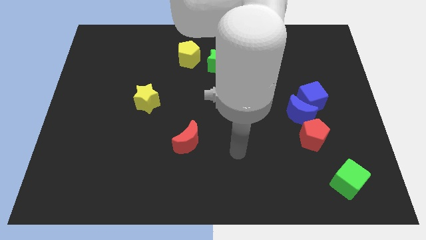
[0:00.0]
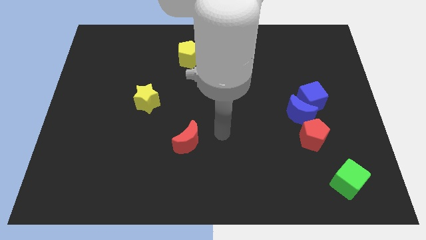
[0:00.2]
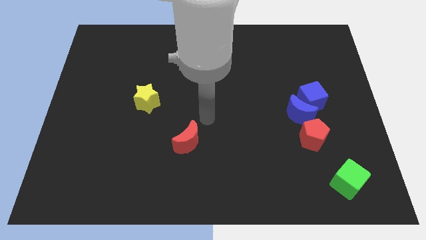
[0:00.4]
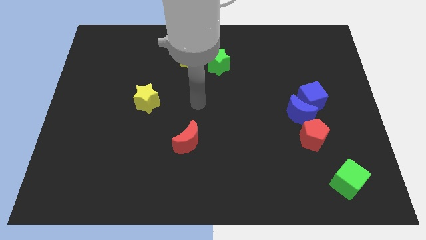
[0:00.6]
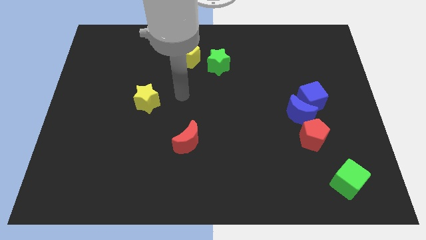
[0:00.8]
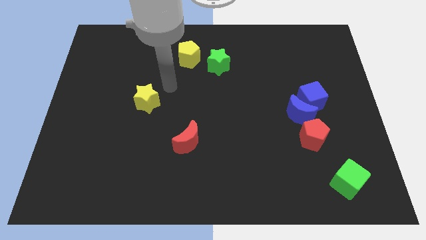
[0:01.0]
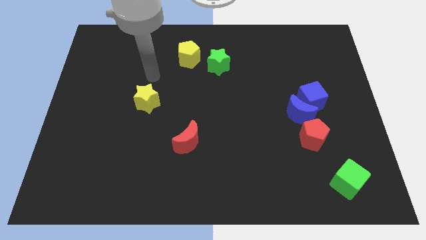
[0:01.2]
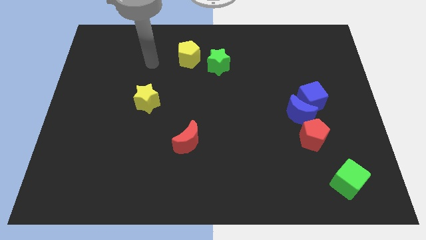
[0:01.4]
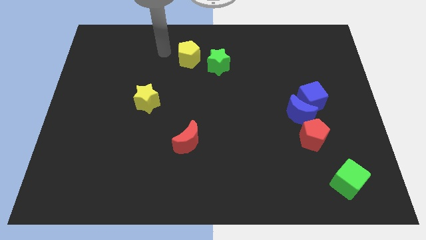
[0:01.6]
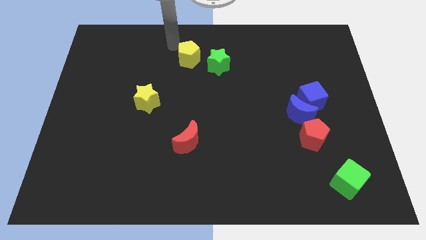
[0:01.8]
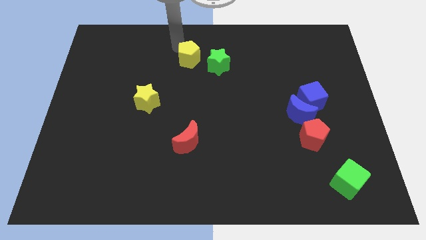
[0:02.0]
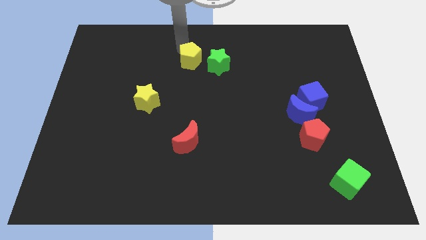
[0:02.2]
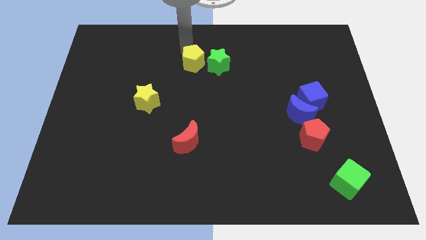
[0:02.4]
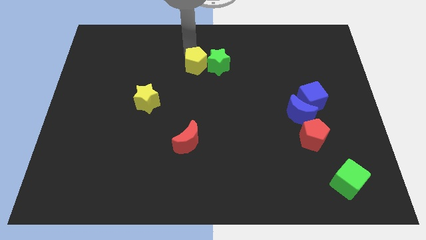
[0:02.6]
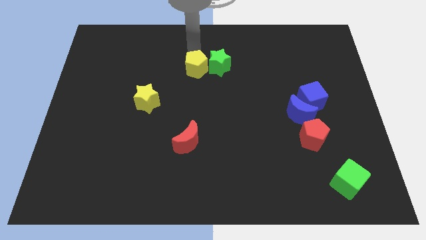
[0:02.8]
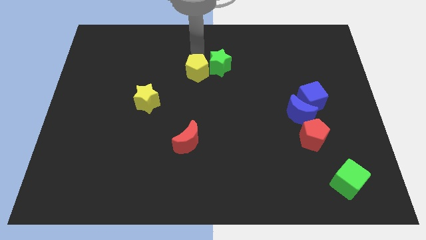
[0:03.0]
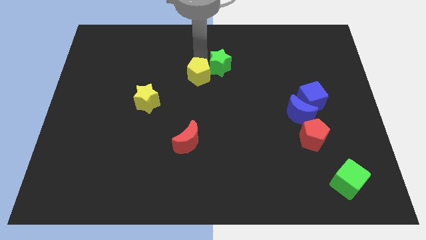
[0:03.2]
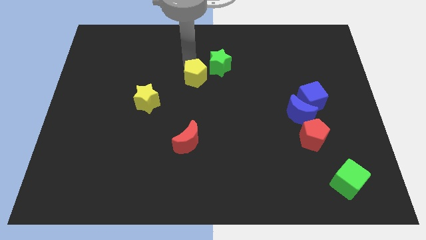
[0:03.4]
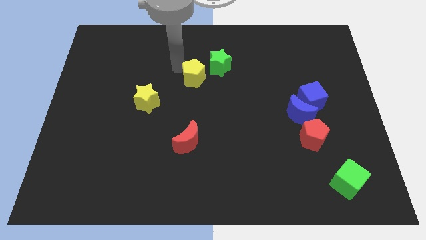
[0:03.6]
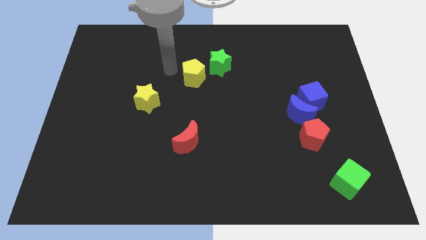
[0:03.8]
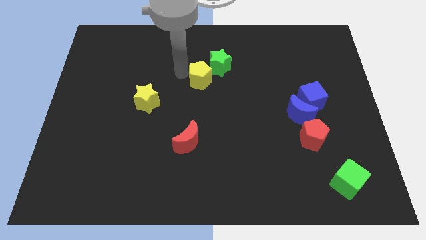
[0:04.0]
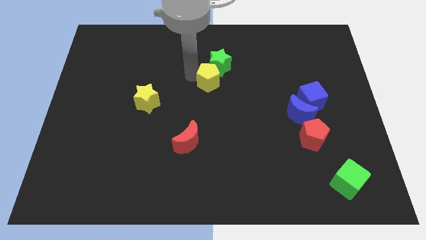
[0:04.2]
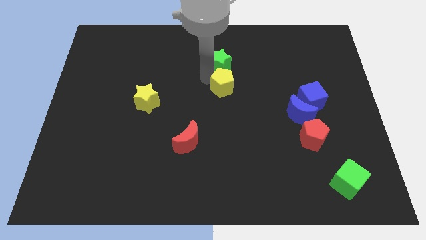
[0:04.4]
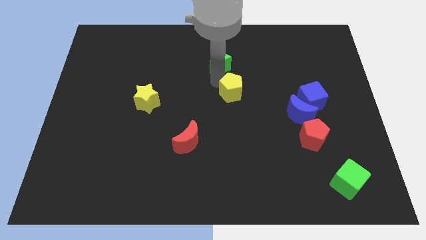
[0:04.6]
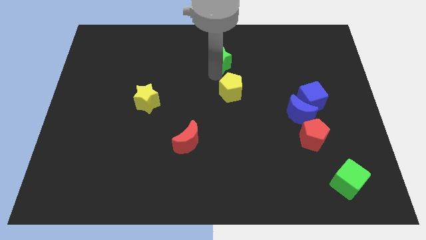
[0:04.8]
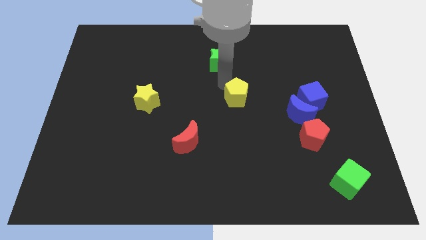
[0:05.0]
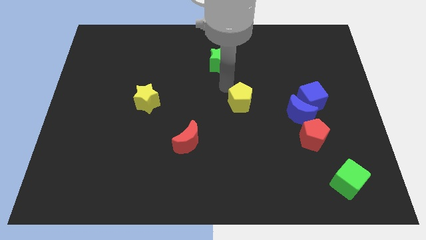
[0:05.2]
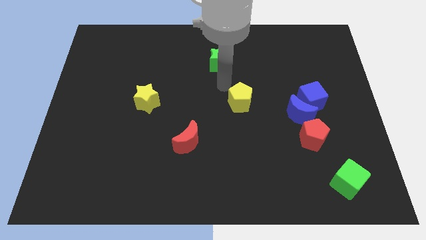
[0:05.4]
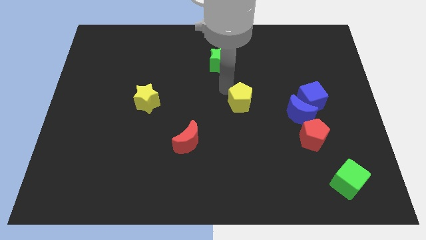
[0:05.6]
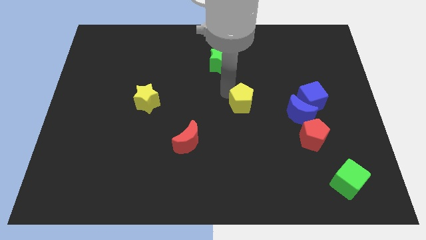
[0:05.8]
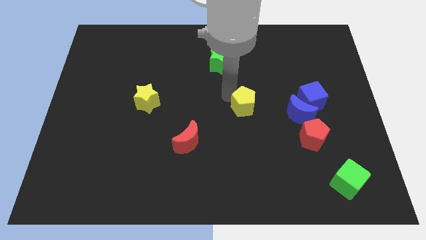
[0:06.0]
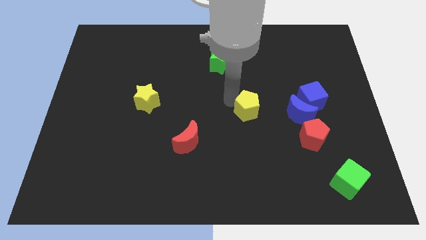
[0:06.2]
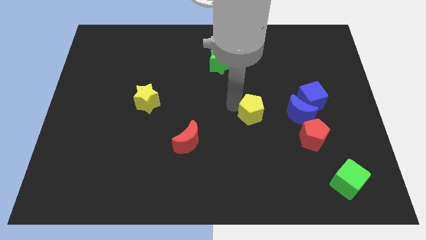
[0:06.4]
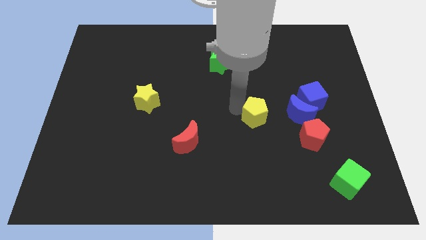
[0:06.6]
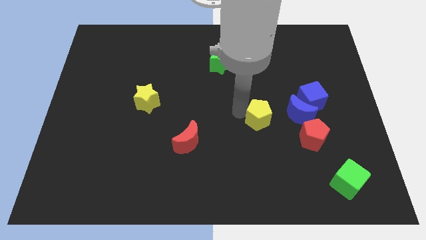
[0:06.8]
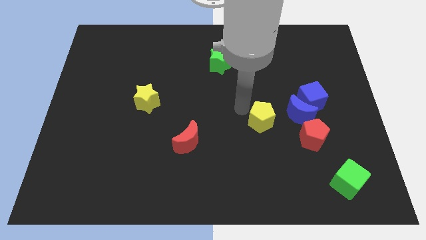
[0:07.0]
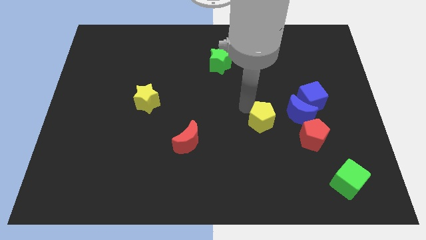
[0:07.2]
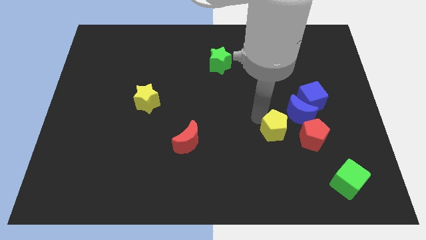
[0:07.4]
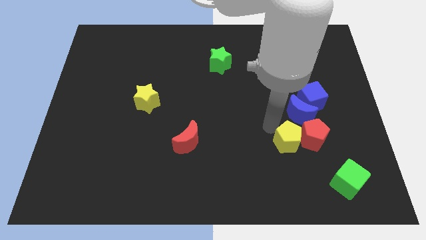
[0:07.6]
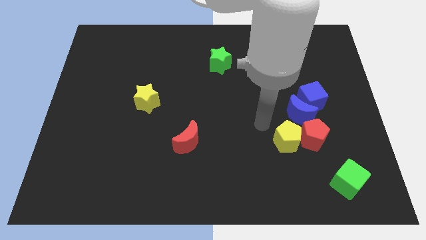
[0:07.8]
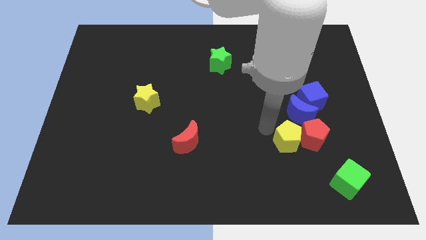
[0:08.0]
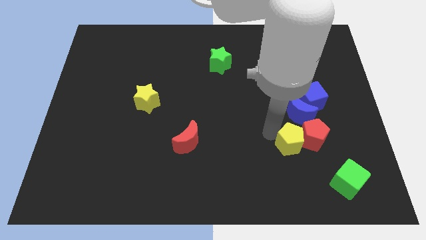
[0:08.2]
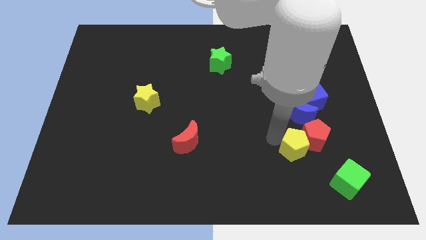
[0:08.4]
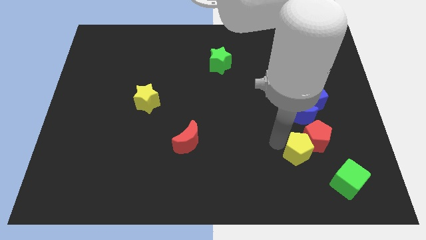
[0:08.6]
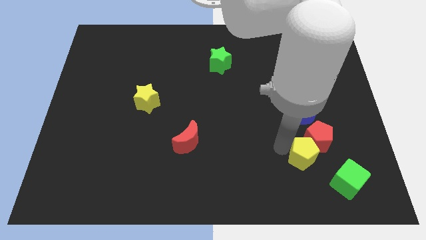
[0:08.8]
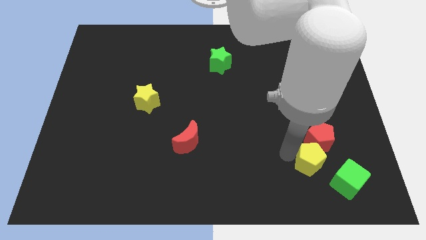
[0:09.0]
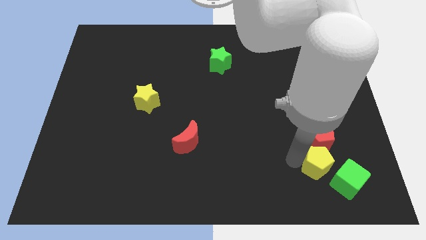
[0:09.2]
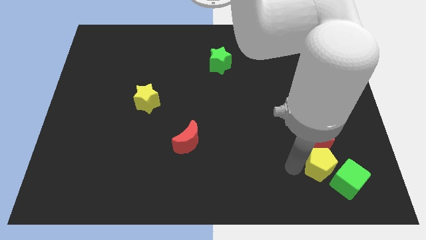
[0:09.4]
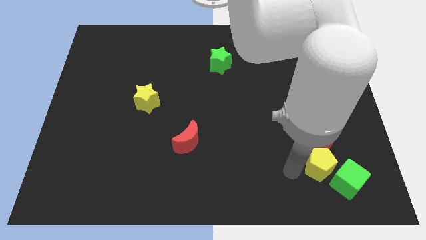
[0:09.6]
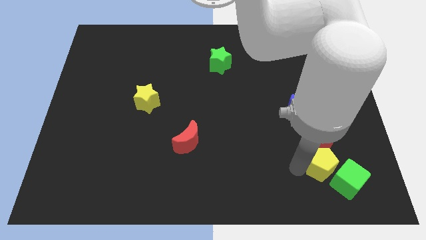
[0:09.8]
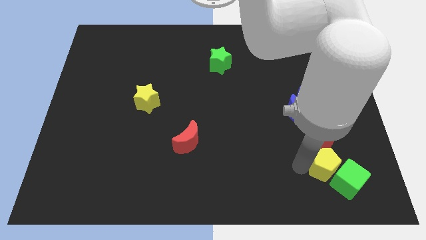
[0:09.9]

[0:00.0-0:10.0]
put the yellow pentagon to the bottom right of the red pentagon

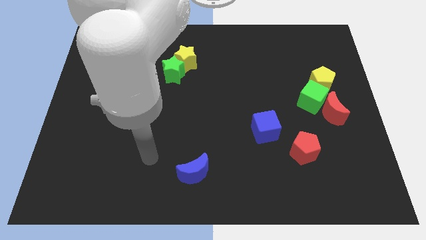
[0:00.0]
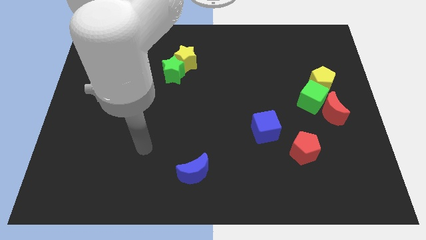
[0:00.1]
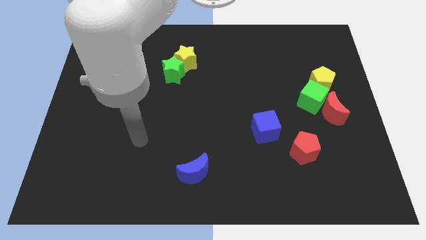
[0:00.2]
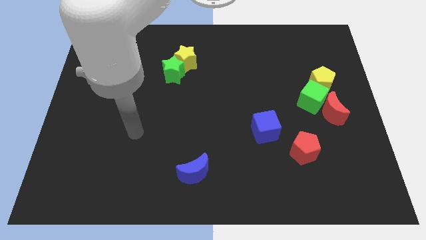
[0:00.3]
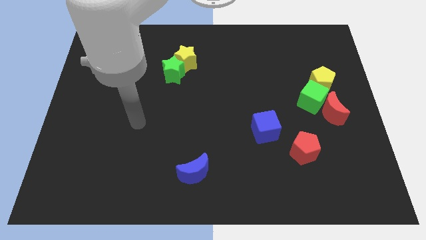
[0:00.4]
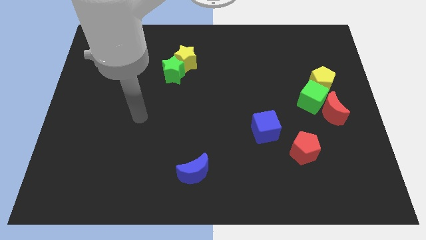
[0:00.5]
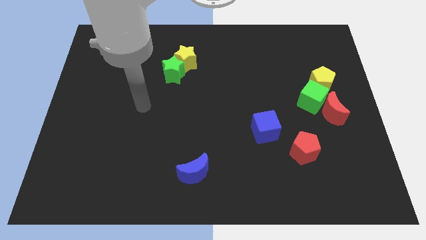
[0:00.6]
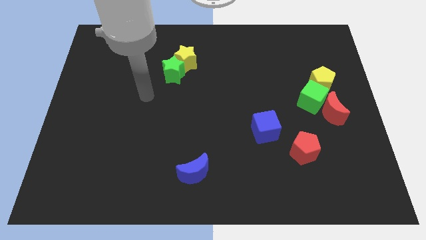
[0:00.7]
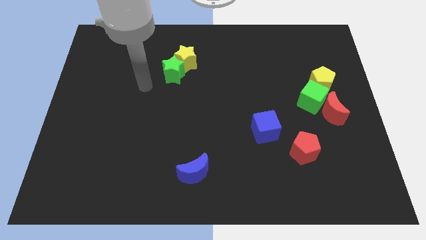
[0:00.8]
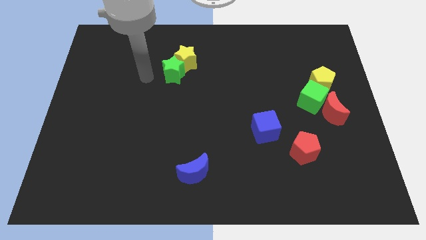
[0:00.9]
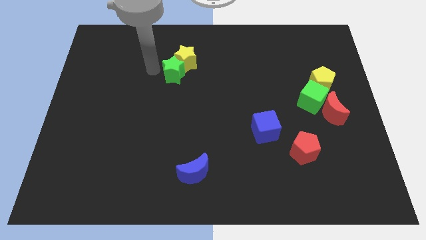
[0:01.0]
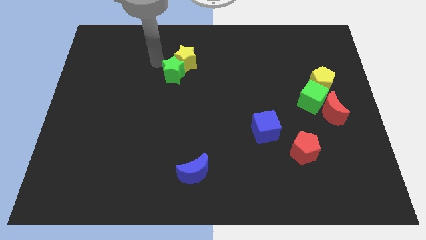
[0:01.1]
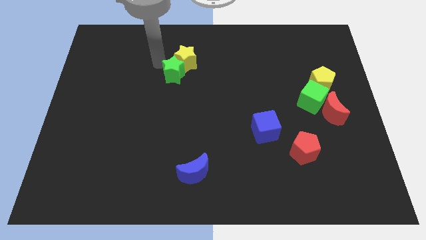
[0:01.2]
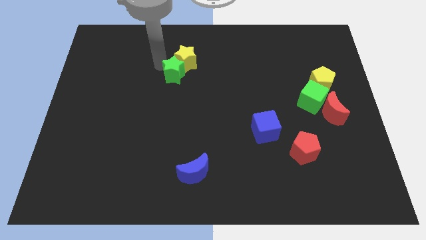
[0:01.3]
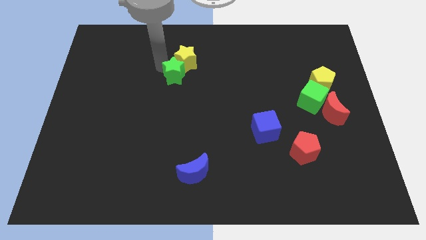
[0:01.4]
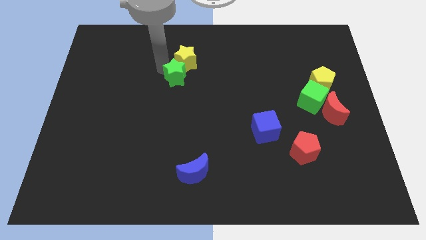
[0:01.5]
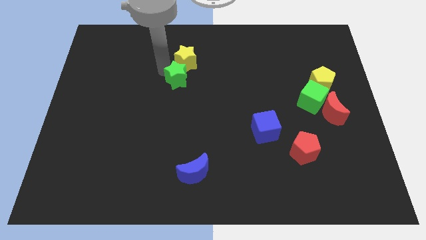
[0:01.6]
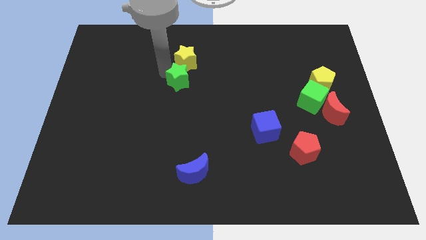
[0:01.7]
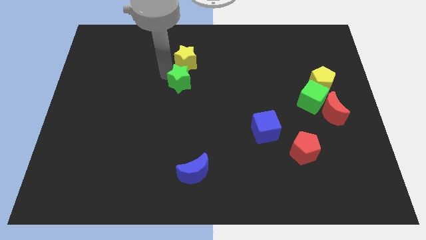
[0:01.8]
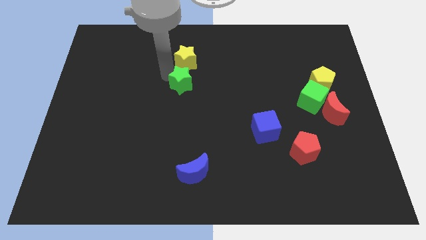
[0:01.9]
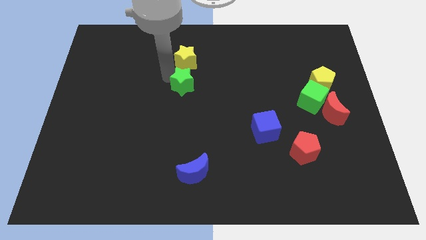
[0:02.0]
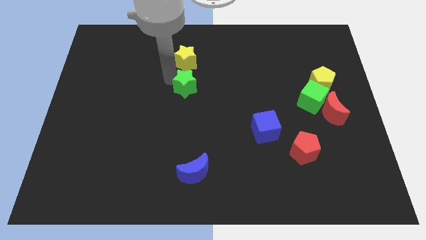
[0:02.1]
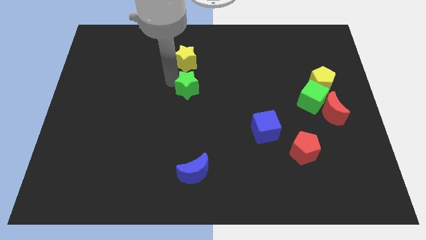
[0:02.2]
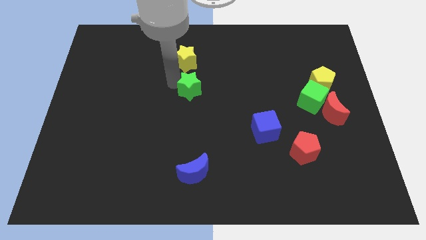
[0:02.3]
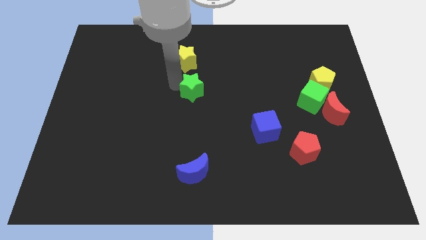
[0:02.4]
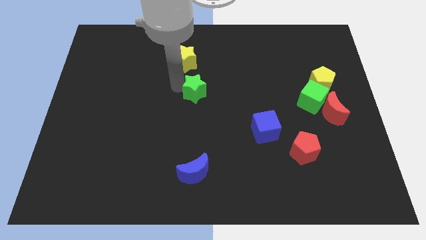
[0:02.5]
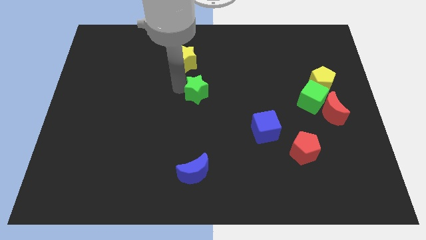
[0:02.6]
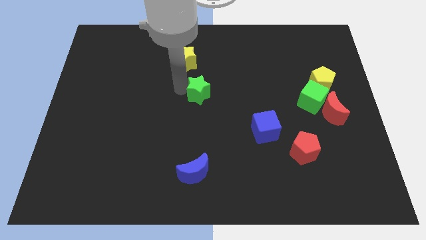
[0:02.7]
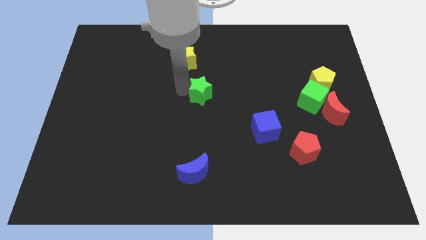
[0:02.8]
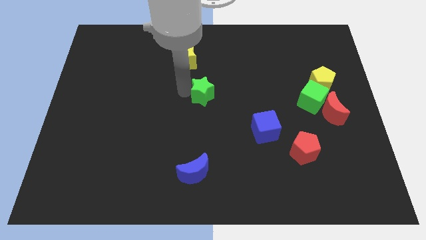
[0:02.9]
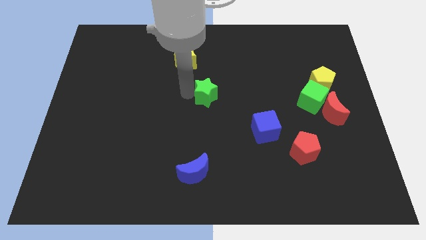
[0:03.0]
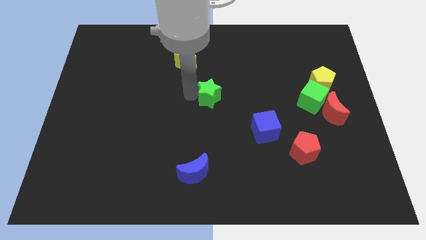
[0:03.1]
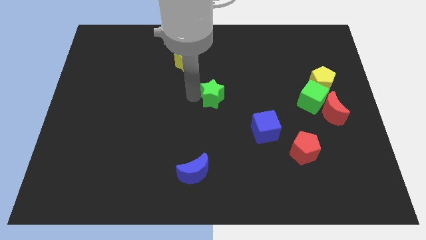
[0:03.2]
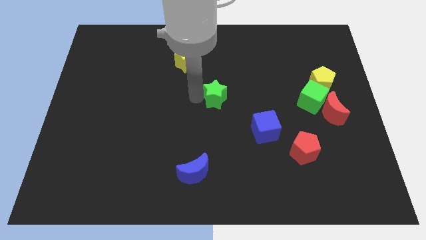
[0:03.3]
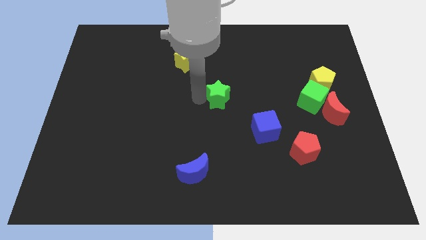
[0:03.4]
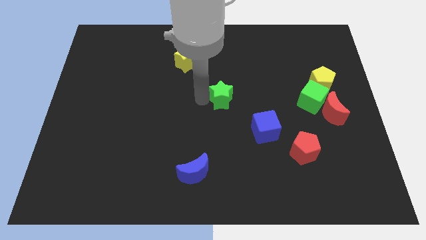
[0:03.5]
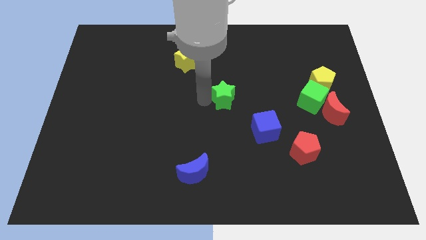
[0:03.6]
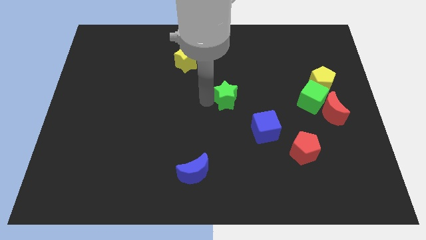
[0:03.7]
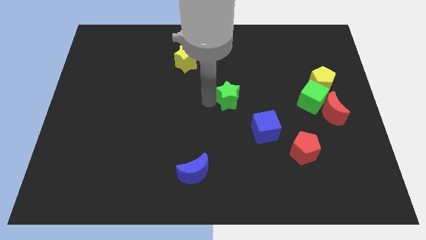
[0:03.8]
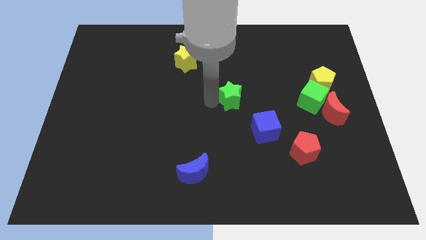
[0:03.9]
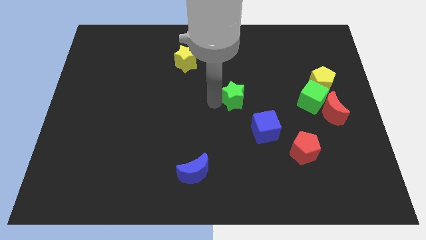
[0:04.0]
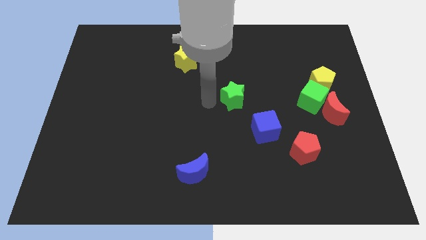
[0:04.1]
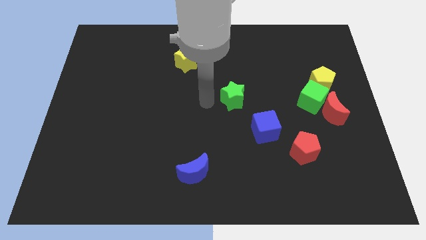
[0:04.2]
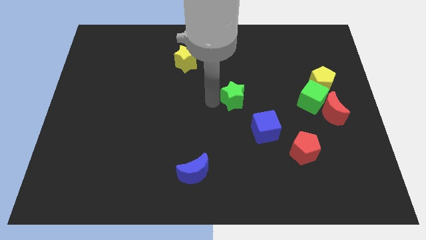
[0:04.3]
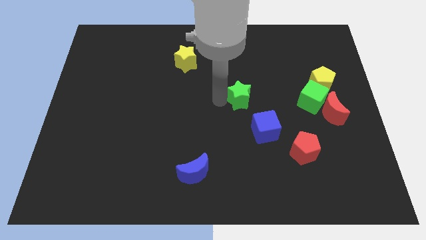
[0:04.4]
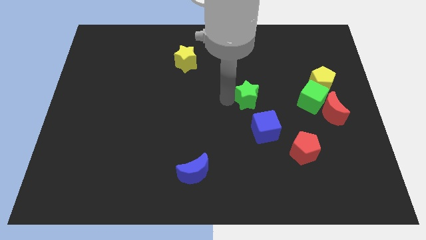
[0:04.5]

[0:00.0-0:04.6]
put the green star to the top side of the blue cube
